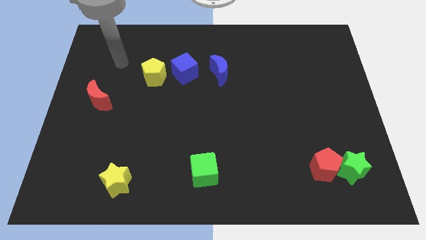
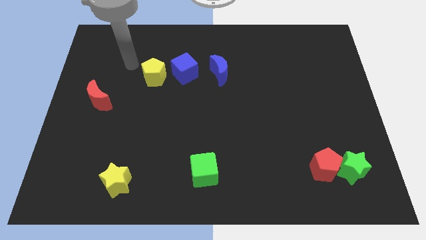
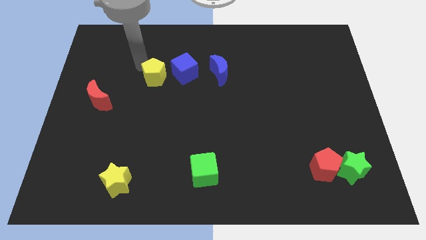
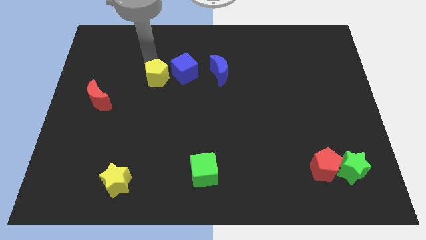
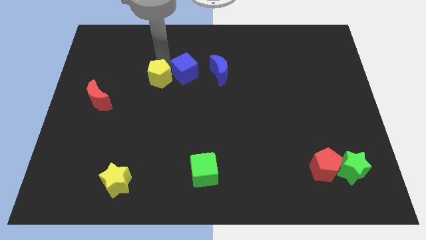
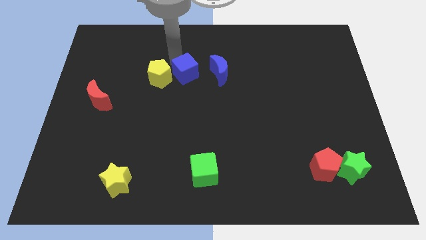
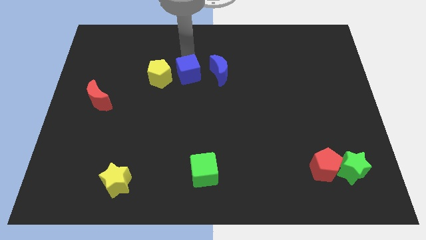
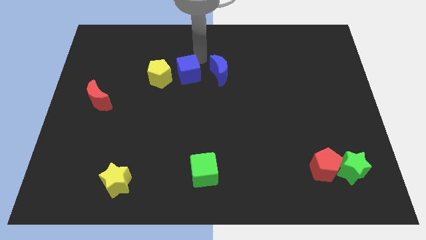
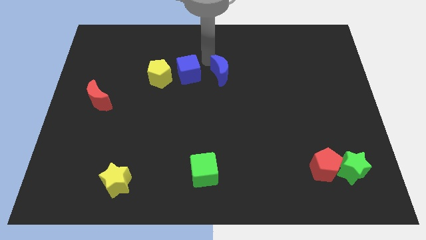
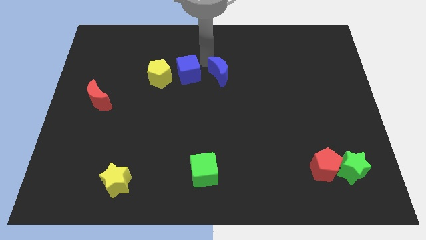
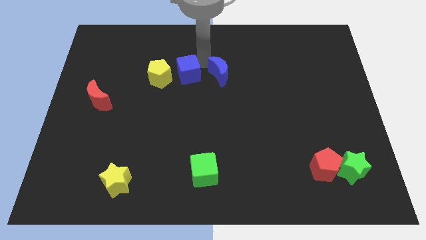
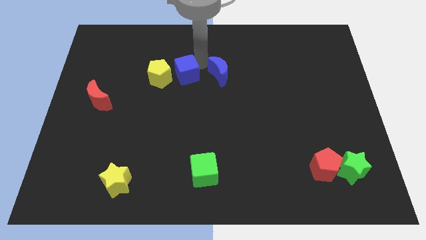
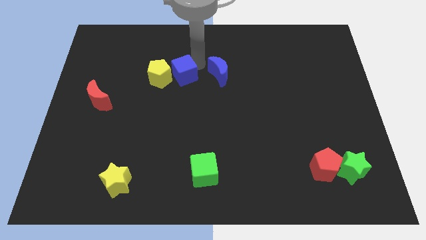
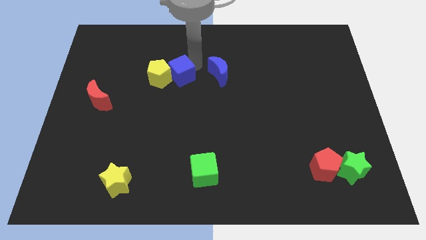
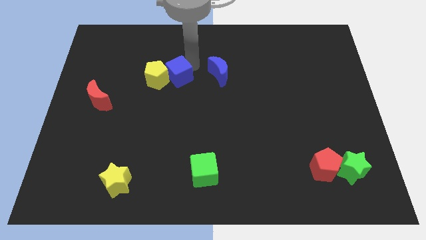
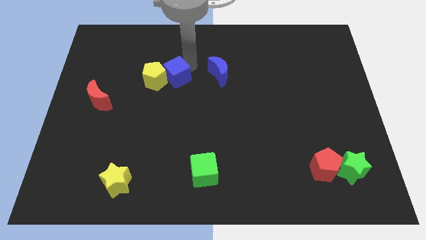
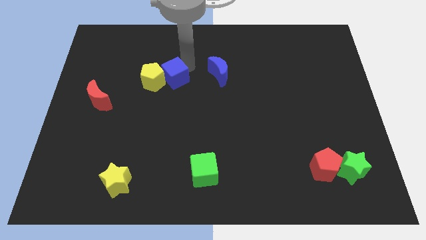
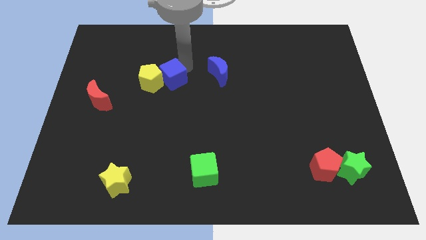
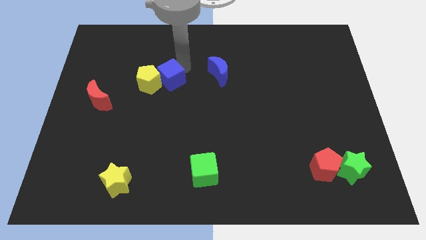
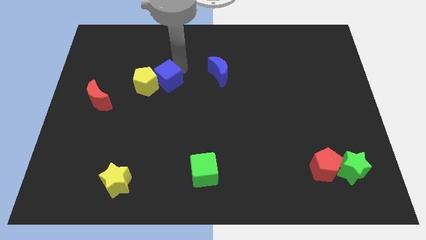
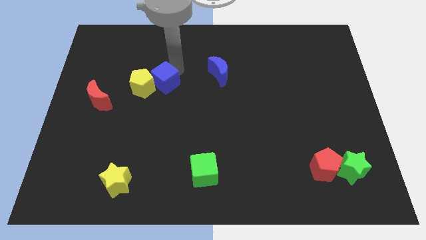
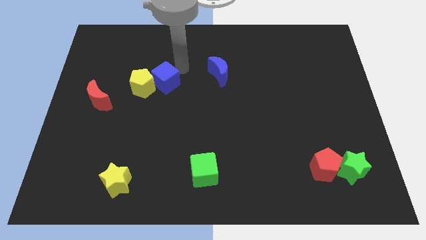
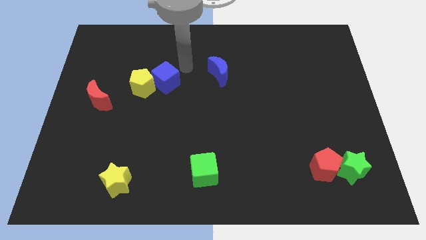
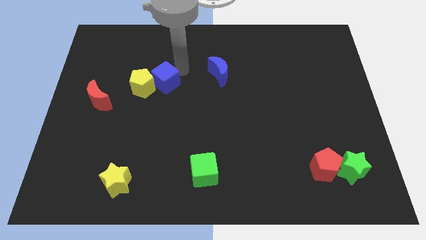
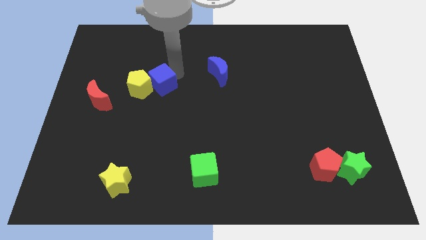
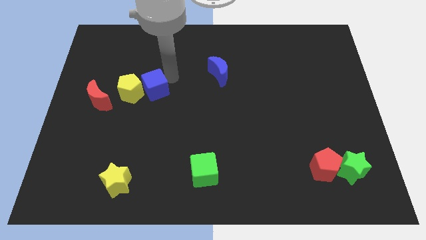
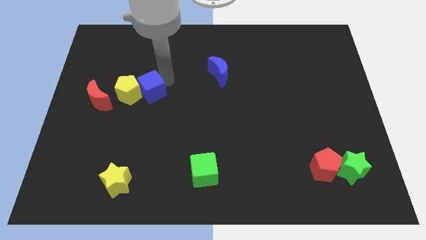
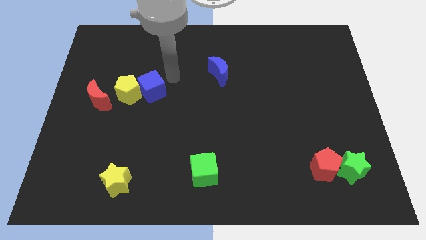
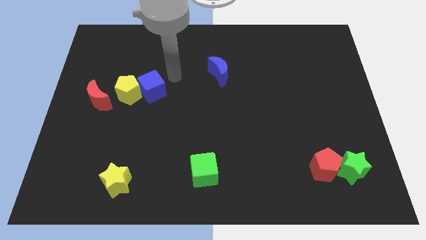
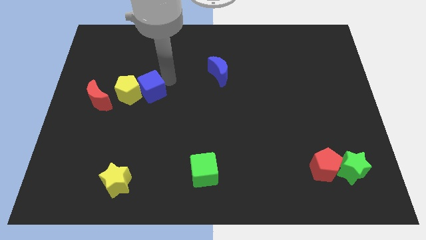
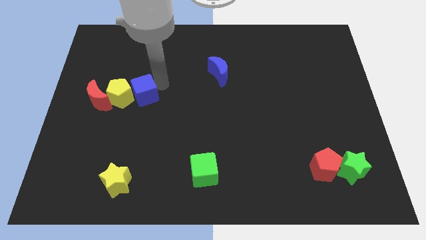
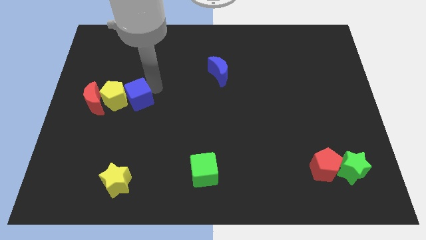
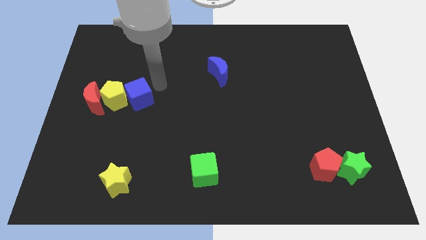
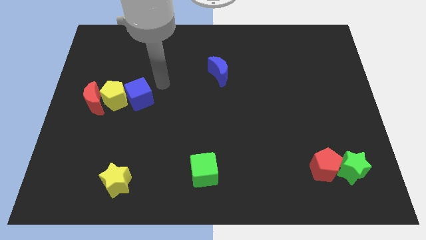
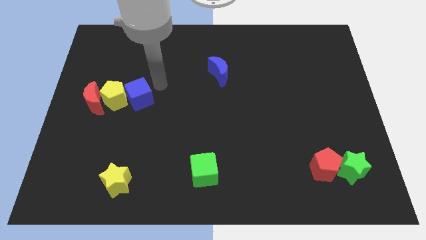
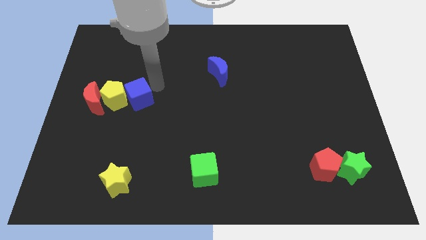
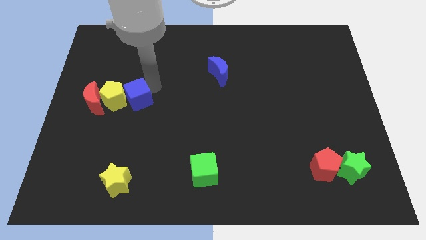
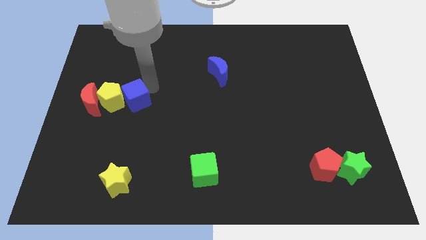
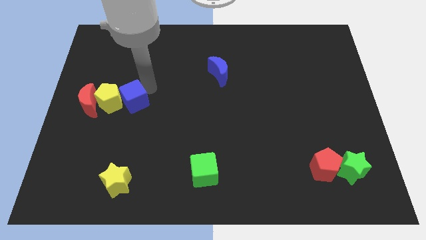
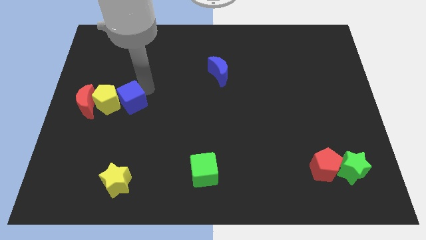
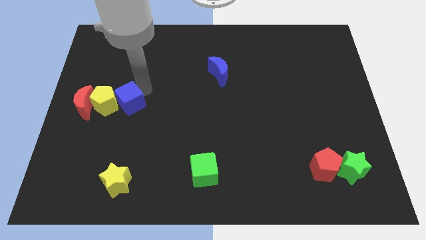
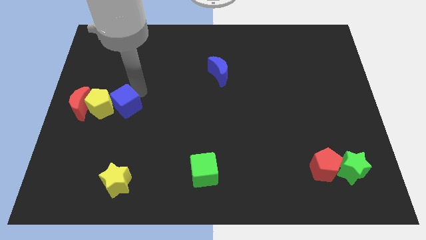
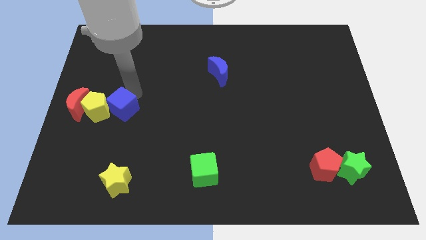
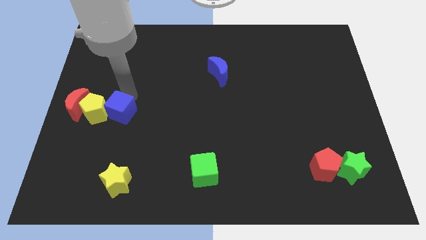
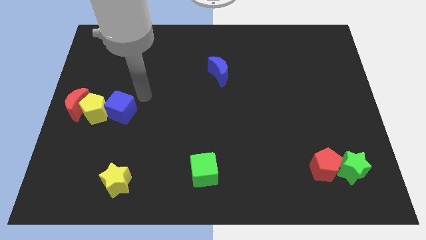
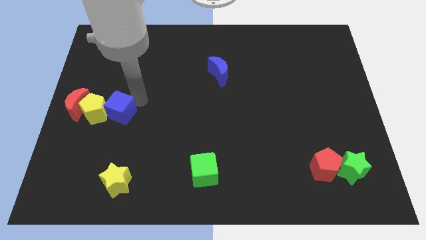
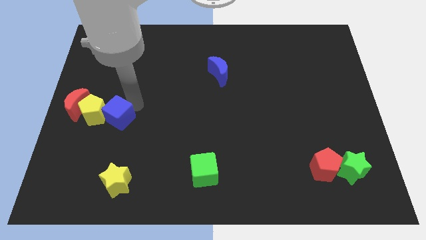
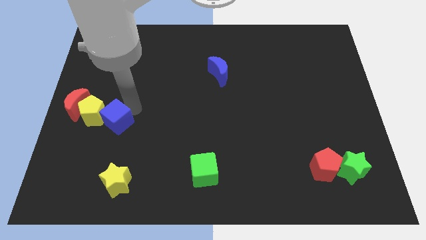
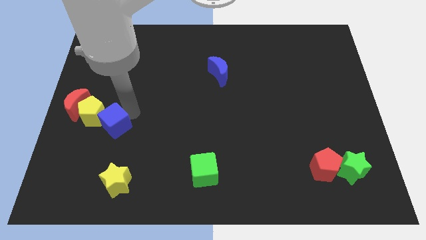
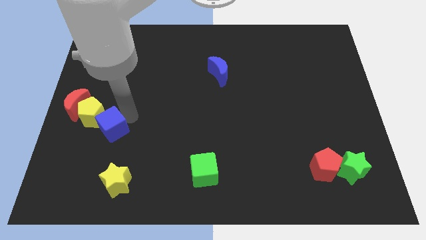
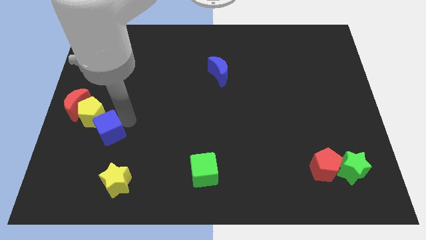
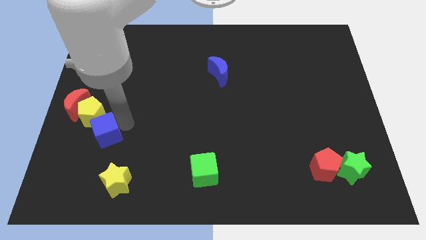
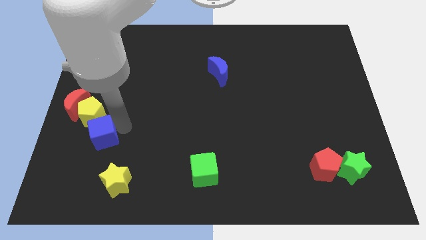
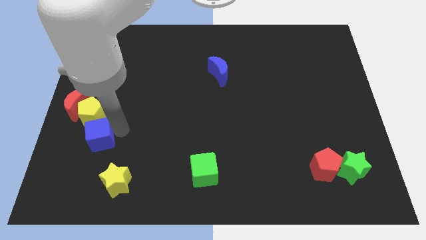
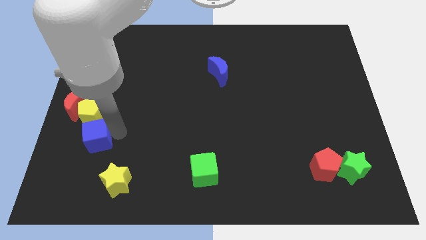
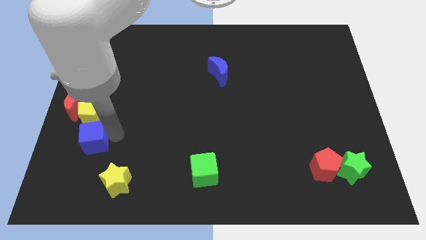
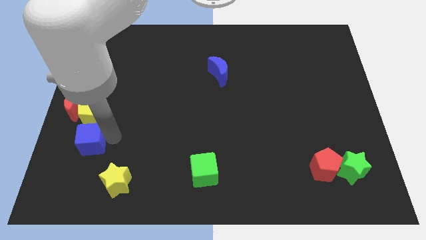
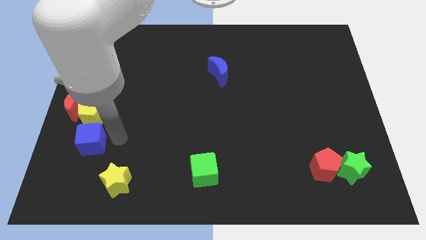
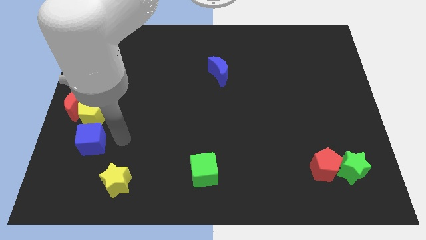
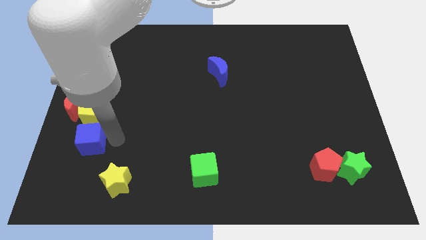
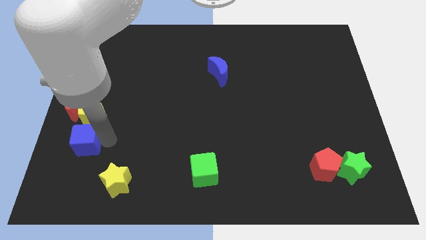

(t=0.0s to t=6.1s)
put the blue cube below the red moon

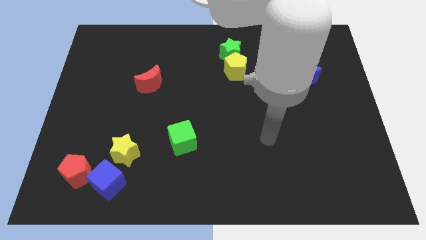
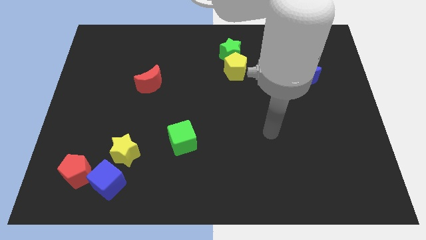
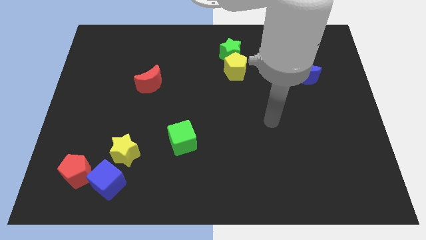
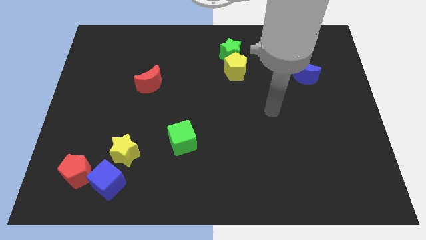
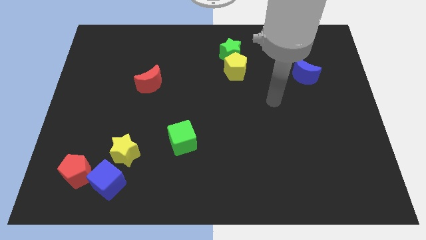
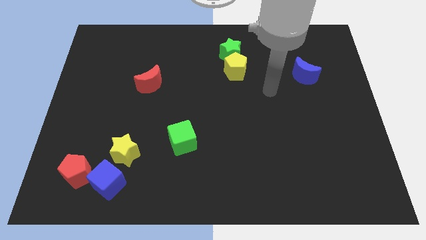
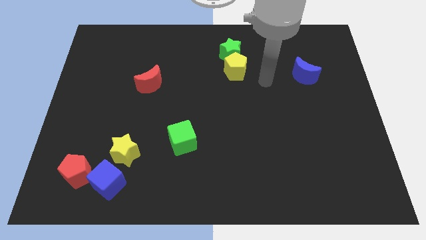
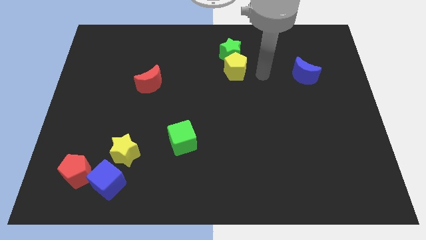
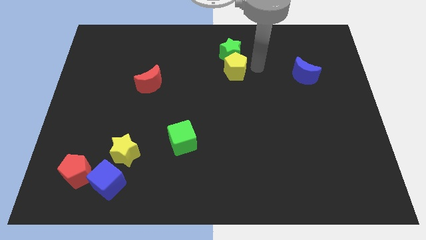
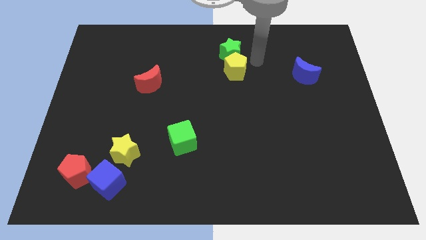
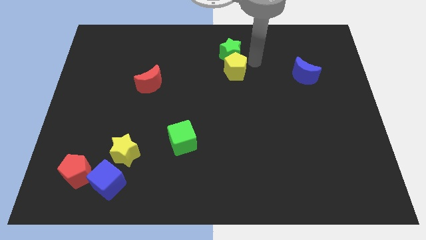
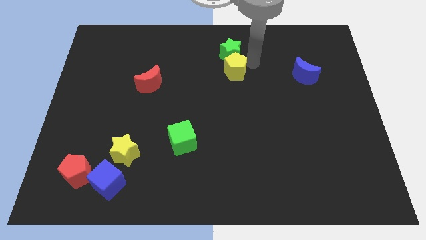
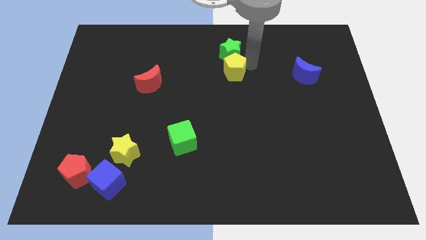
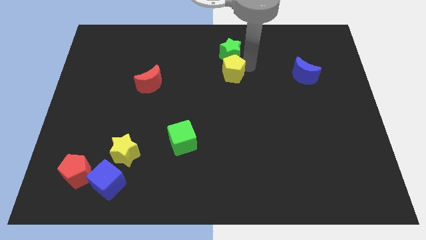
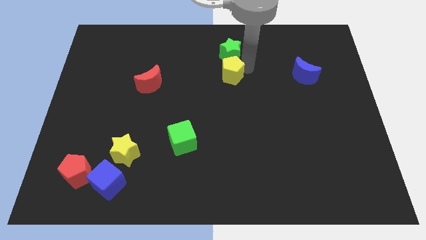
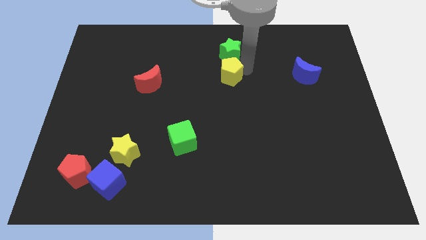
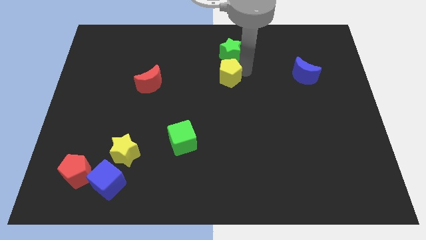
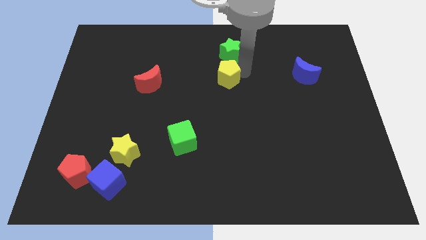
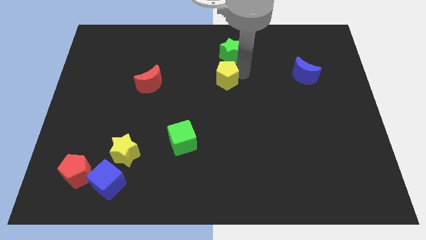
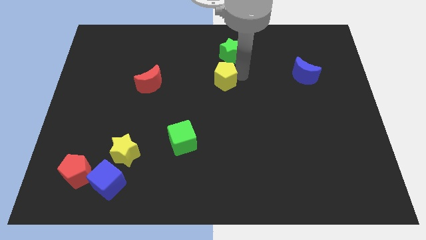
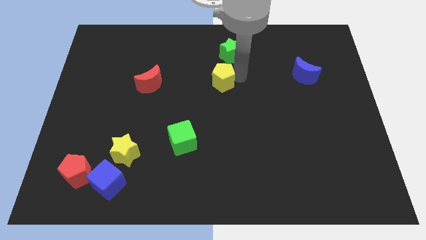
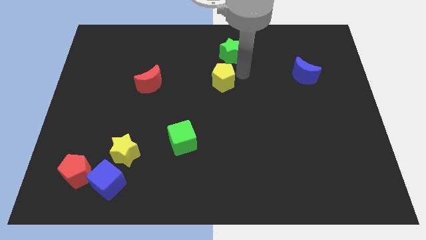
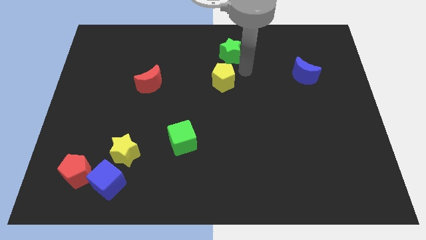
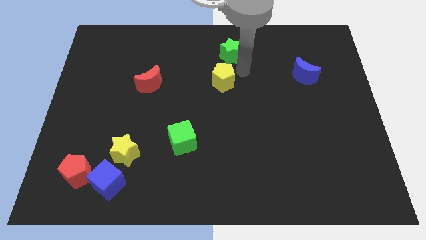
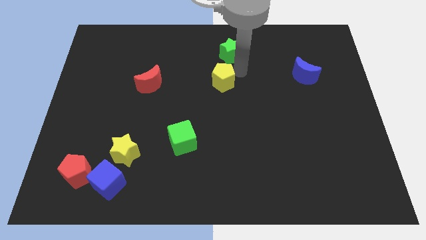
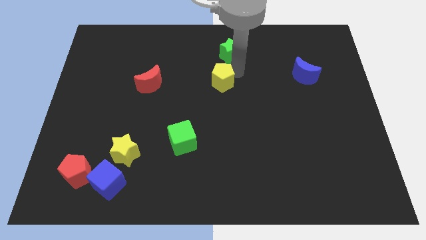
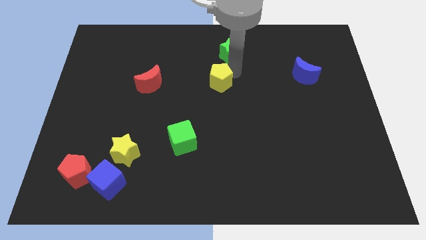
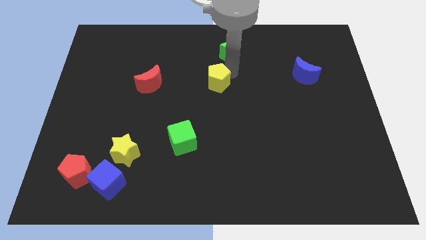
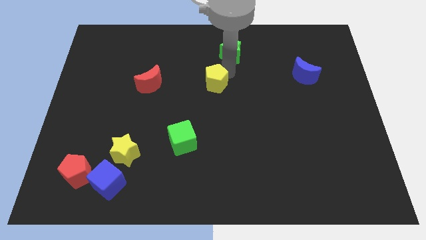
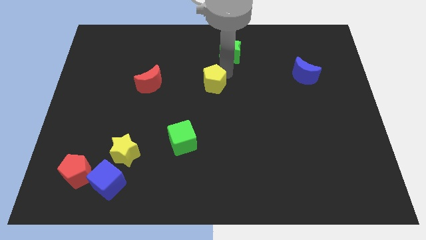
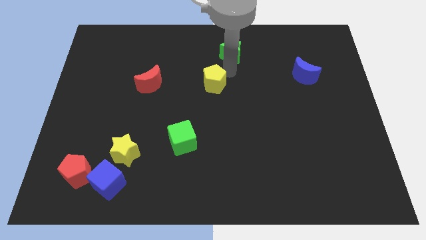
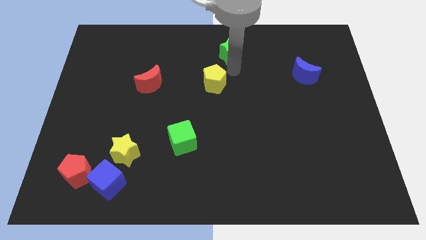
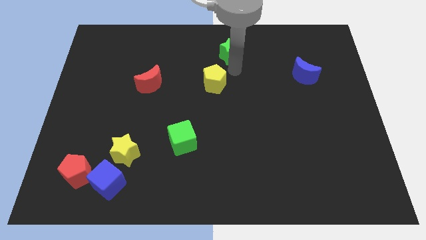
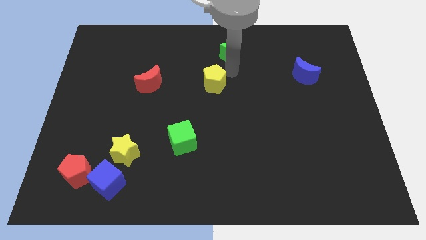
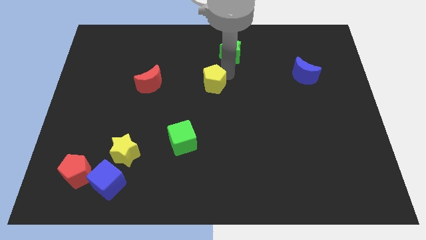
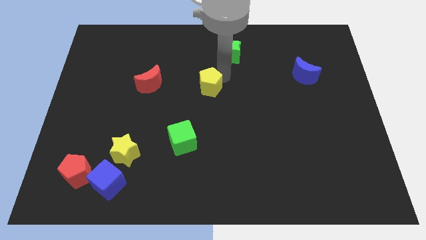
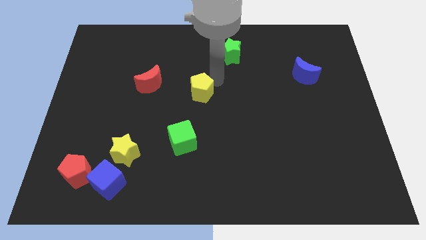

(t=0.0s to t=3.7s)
move the yellow pentagon above the green cube
